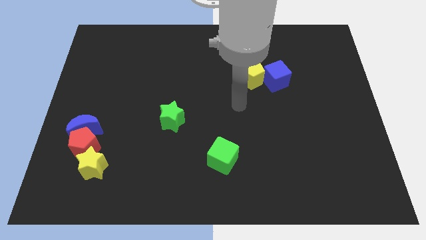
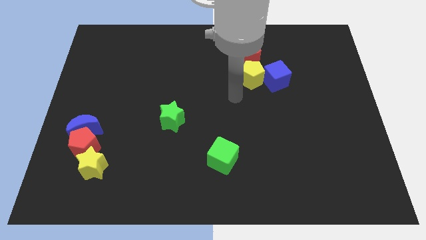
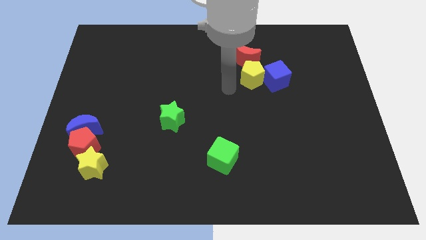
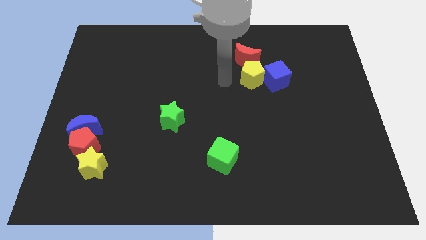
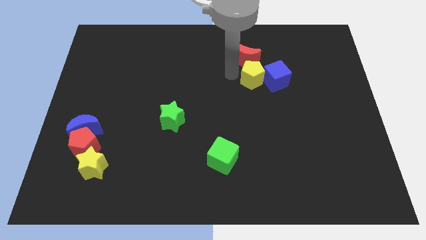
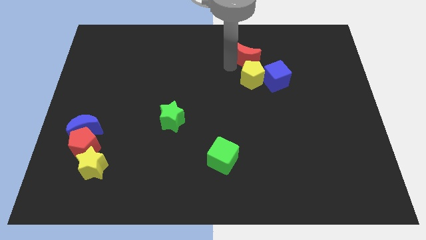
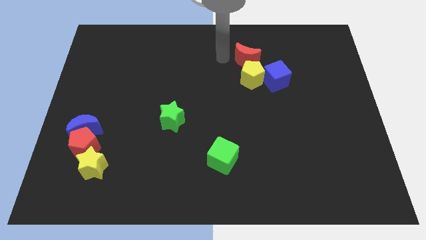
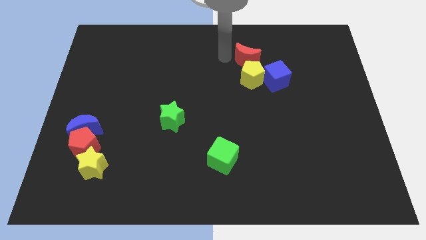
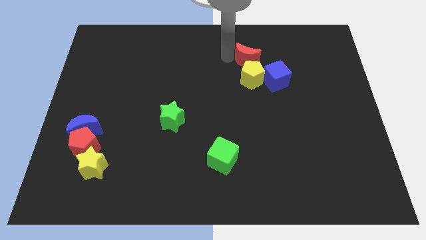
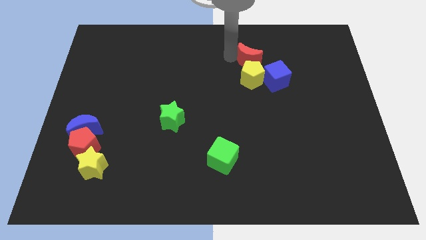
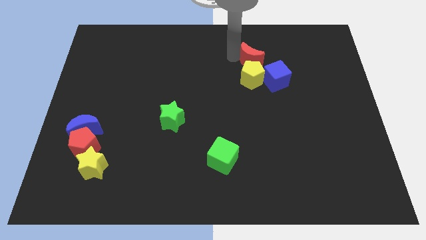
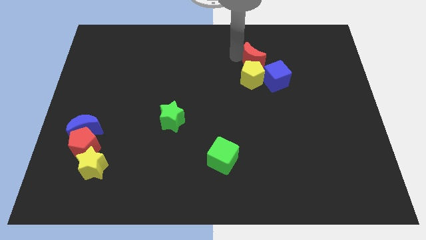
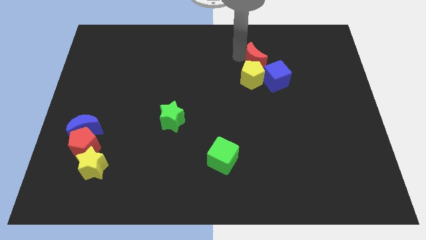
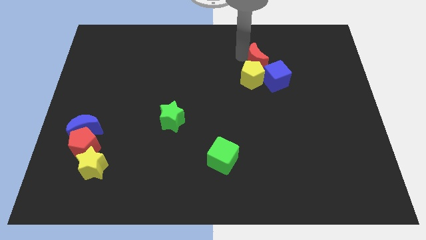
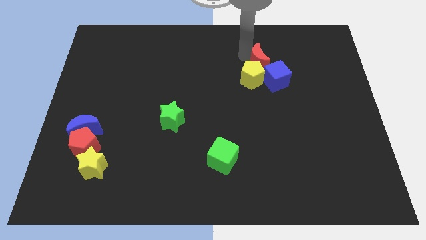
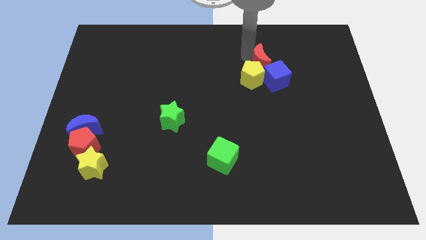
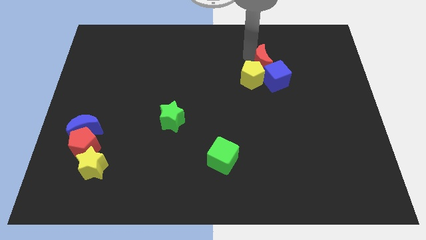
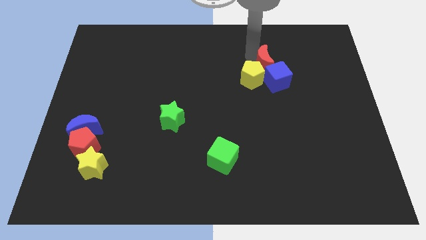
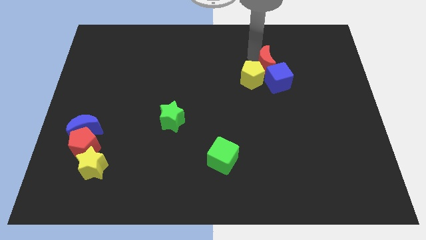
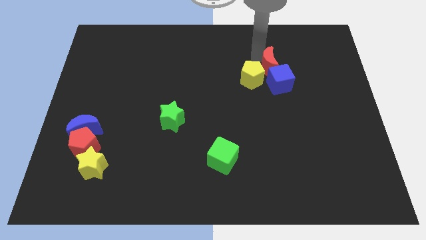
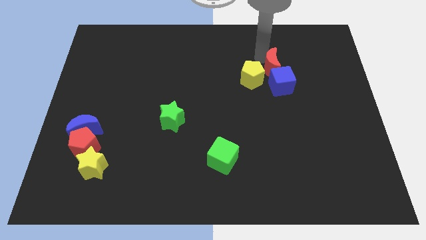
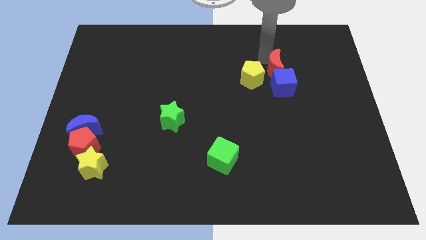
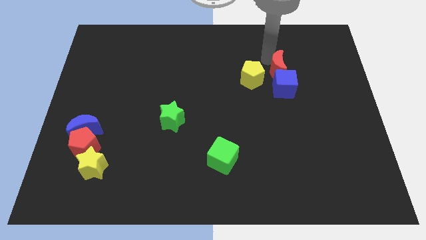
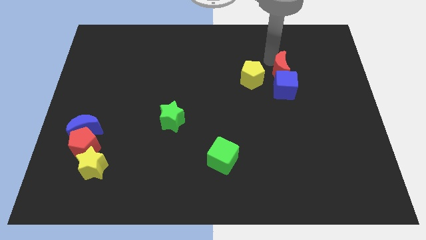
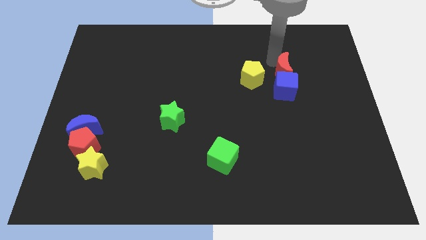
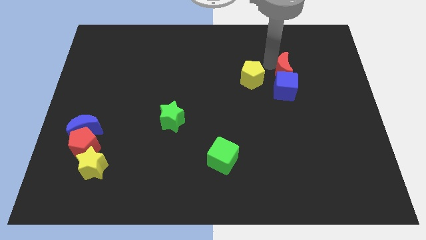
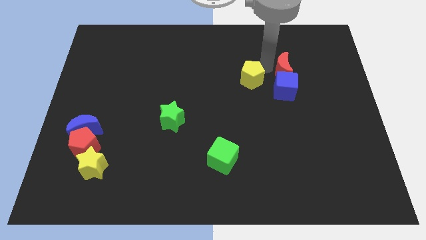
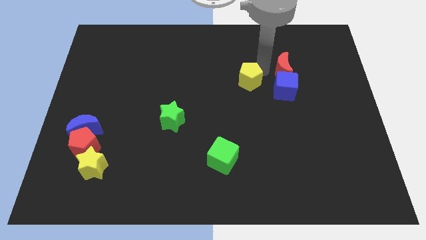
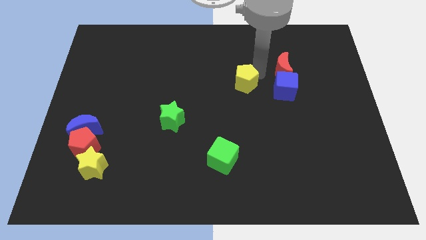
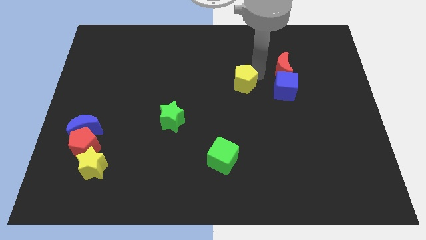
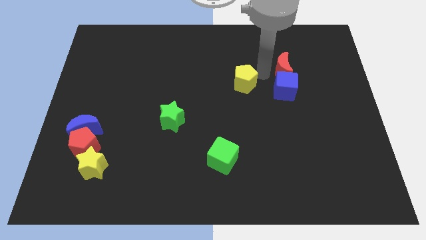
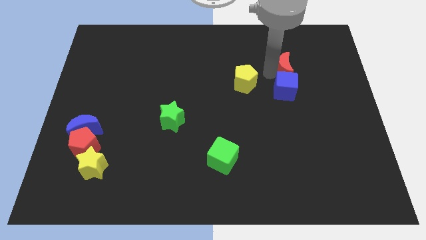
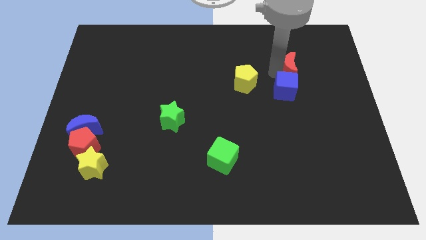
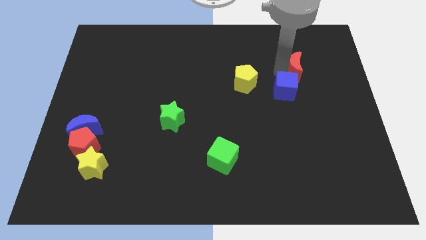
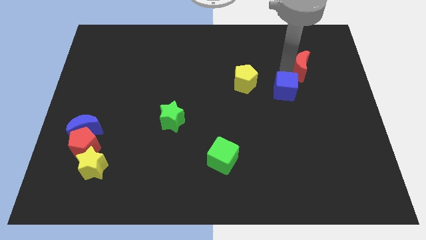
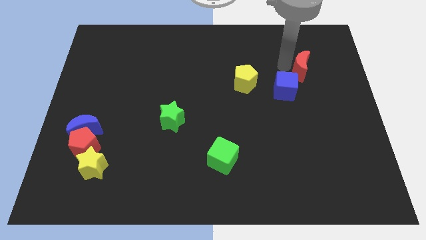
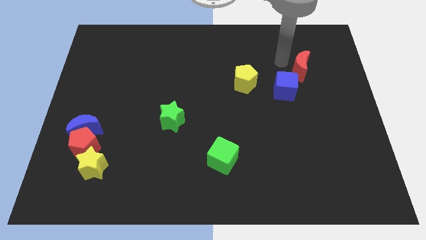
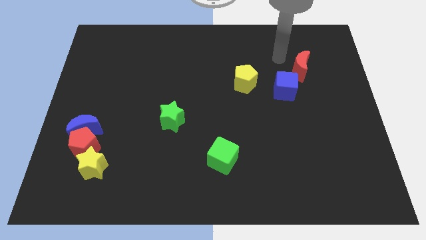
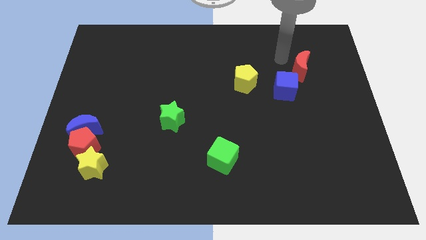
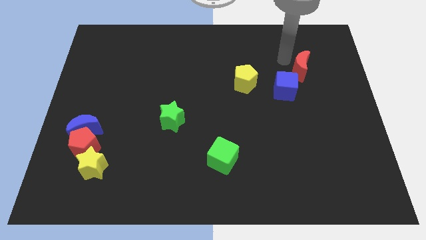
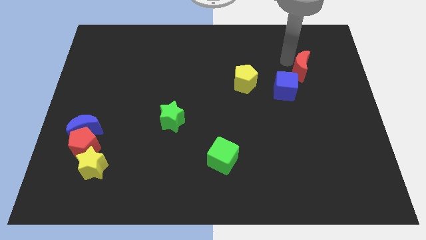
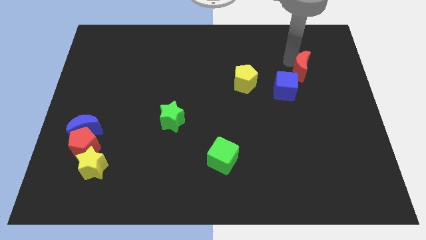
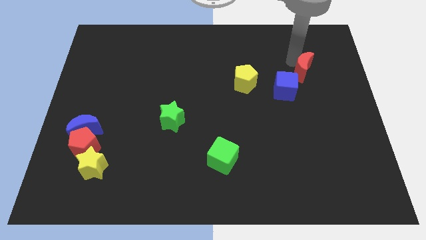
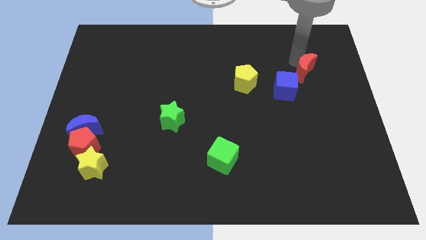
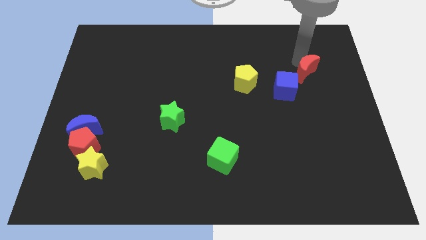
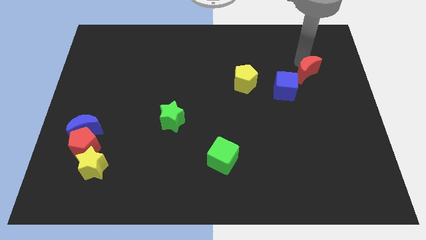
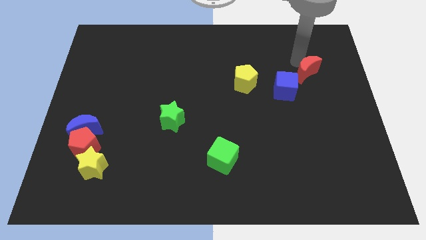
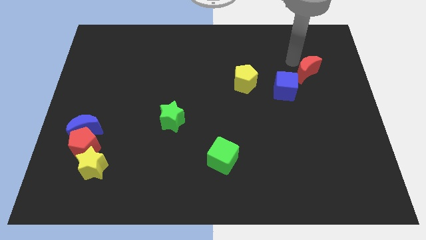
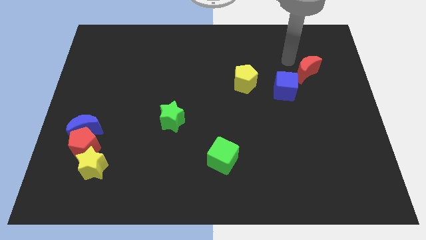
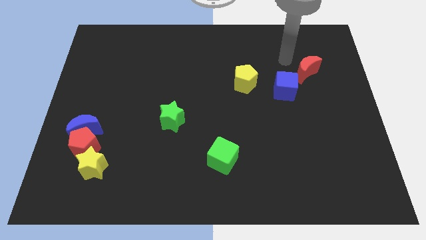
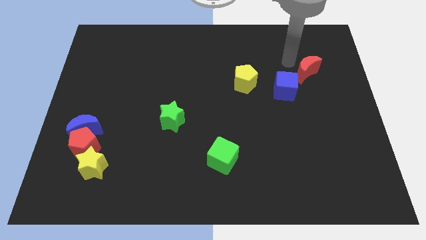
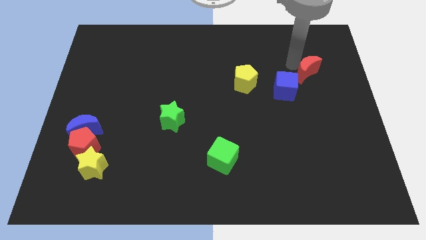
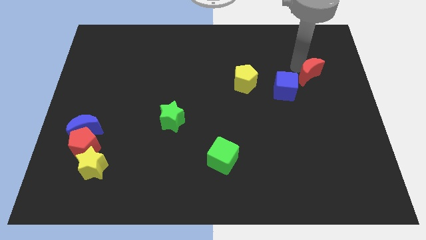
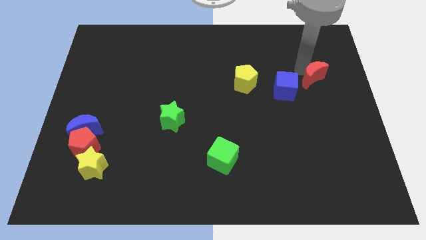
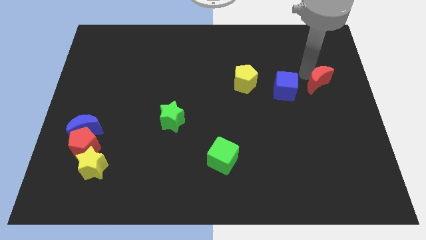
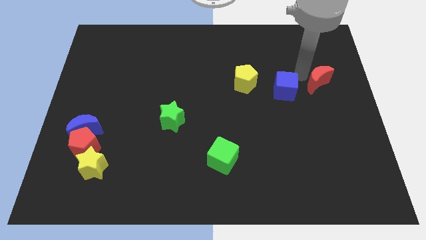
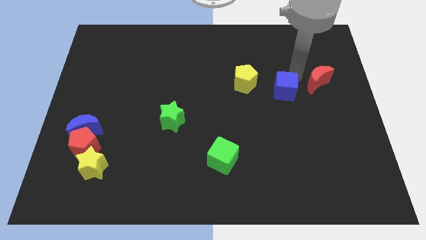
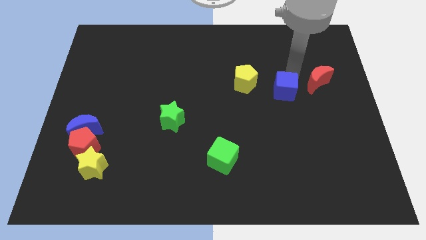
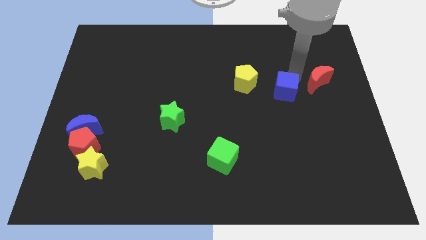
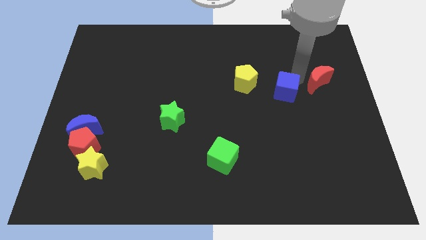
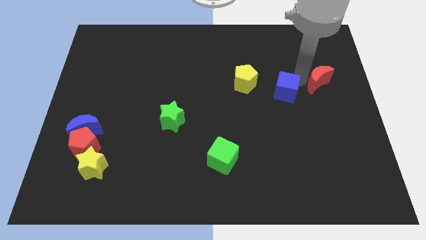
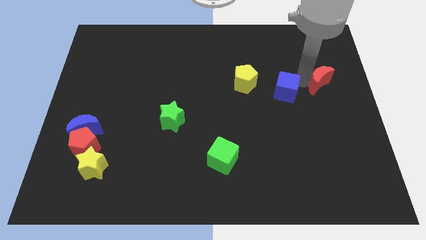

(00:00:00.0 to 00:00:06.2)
push the red moon to the right side
